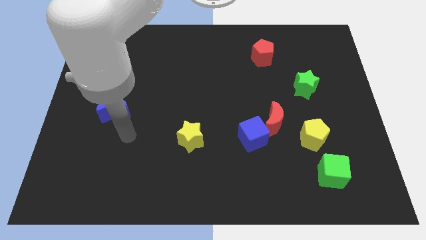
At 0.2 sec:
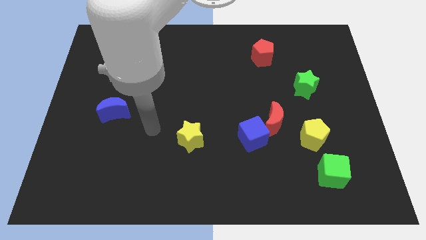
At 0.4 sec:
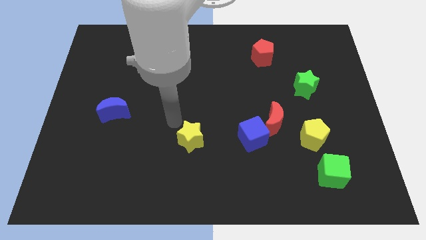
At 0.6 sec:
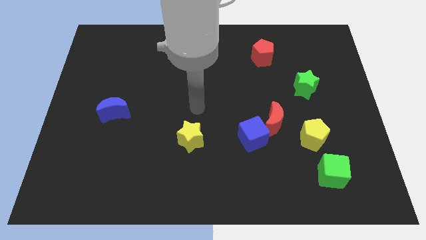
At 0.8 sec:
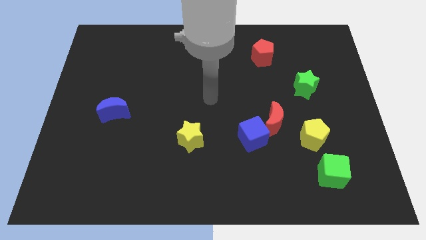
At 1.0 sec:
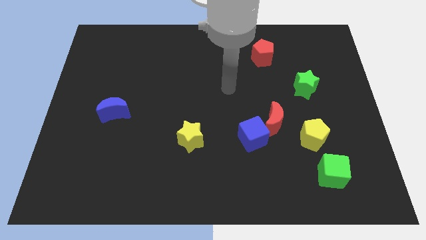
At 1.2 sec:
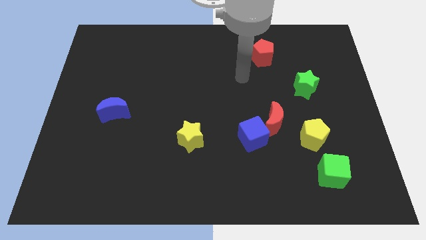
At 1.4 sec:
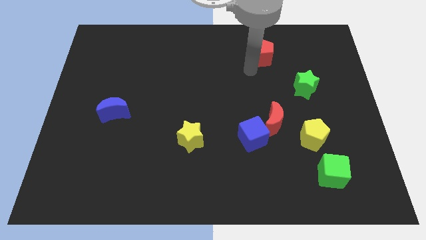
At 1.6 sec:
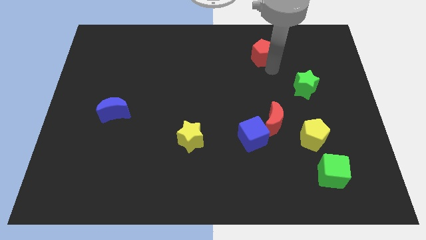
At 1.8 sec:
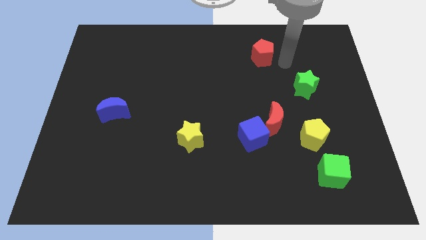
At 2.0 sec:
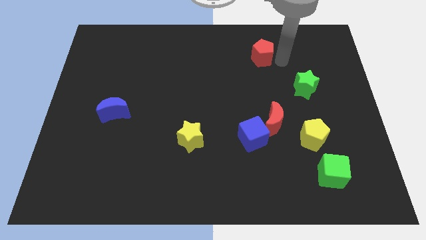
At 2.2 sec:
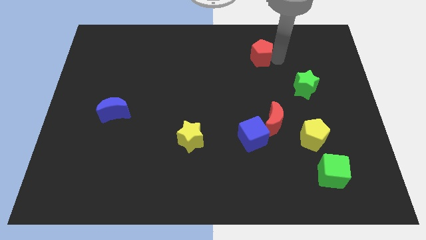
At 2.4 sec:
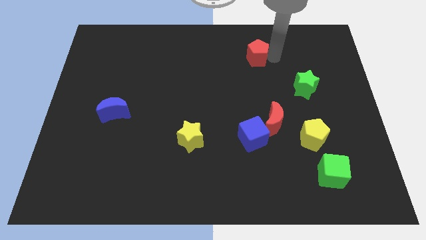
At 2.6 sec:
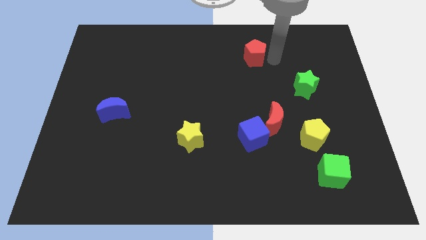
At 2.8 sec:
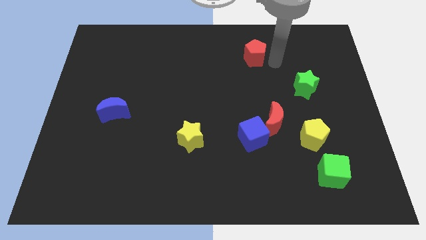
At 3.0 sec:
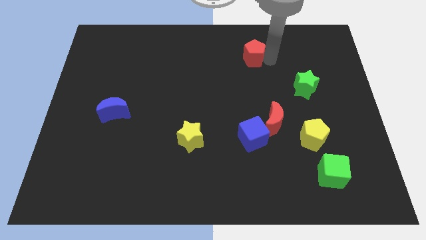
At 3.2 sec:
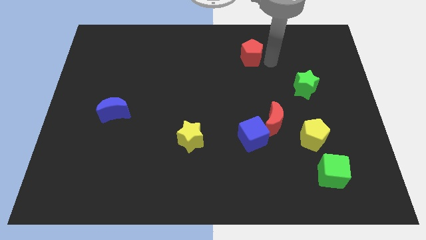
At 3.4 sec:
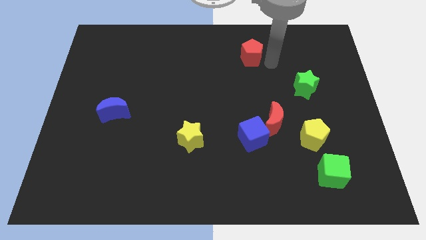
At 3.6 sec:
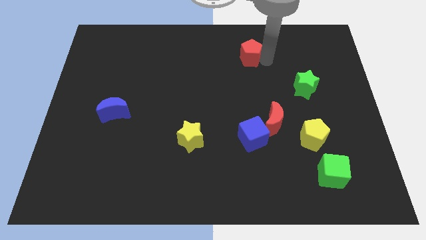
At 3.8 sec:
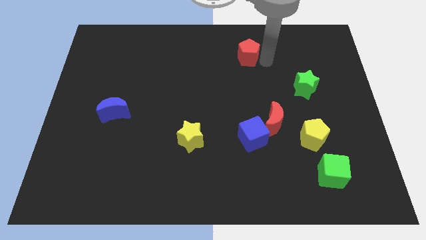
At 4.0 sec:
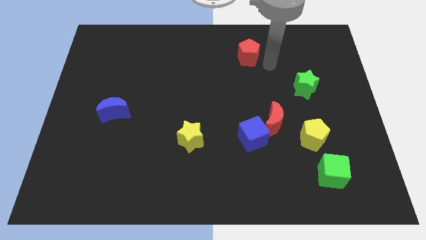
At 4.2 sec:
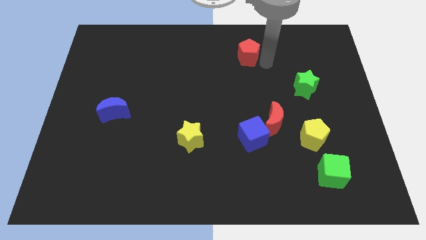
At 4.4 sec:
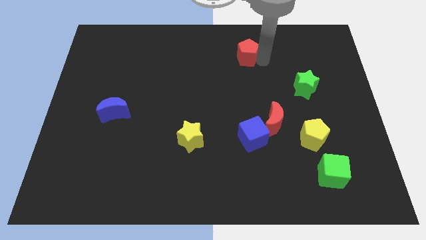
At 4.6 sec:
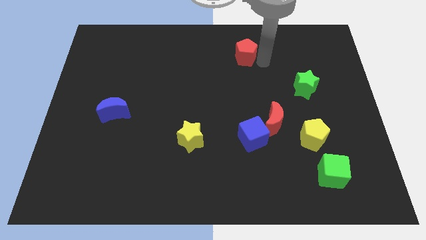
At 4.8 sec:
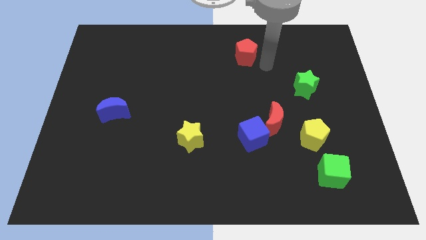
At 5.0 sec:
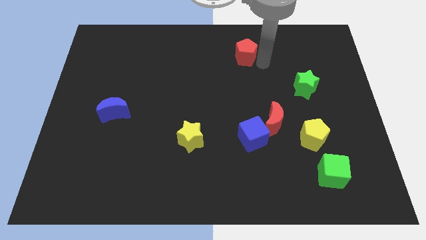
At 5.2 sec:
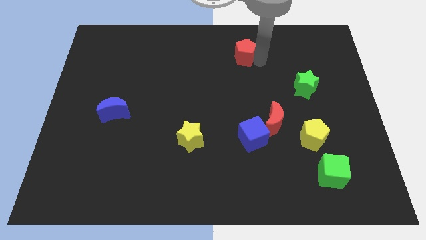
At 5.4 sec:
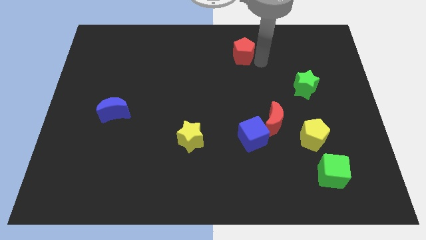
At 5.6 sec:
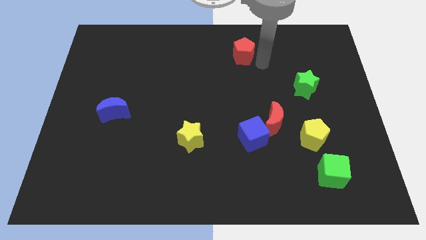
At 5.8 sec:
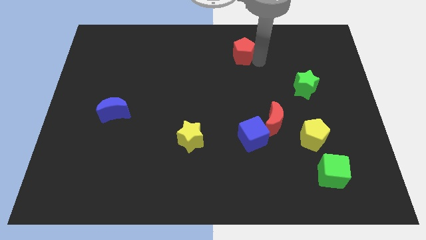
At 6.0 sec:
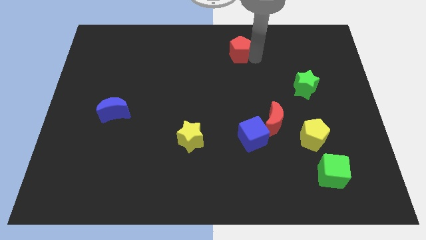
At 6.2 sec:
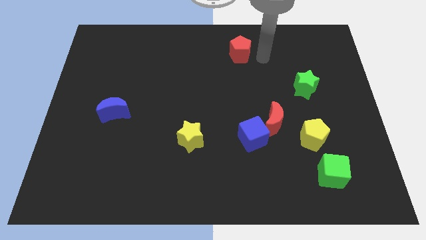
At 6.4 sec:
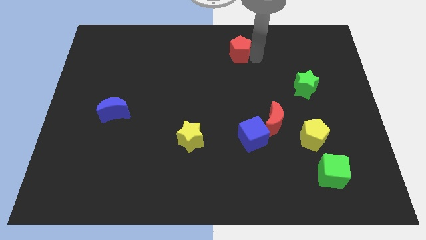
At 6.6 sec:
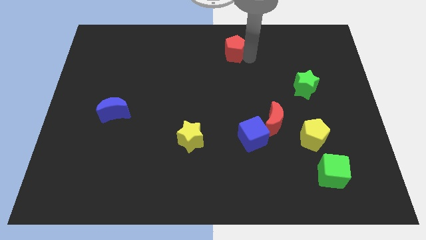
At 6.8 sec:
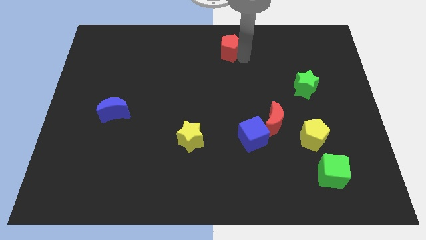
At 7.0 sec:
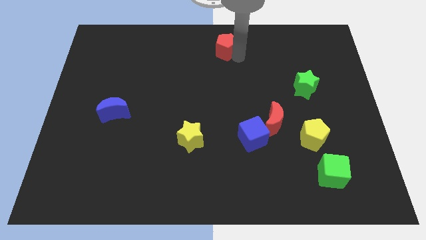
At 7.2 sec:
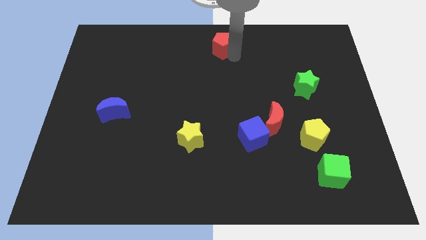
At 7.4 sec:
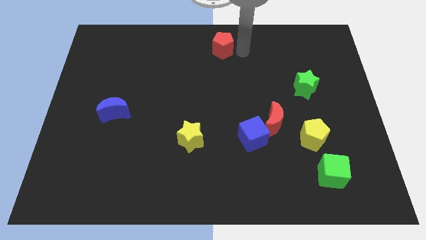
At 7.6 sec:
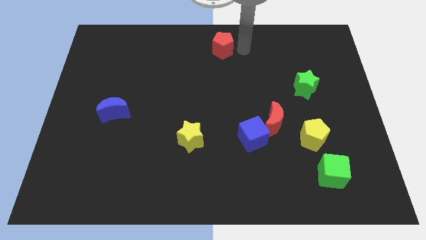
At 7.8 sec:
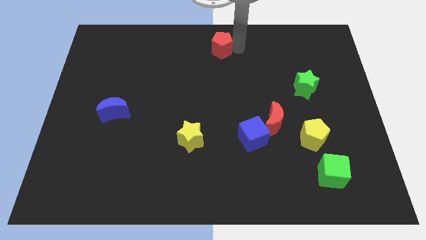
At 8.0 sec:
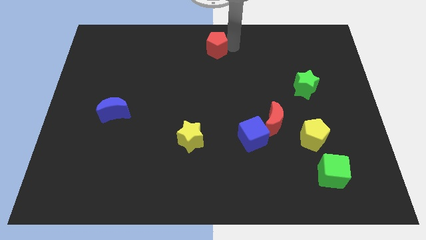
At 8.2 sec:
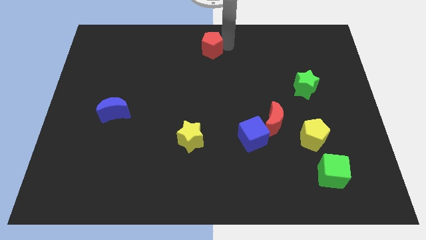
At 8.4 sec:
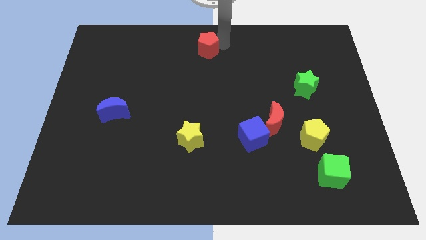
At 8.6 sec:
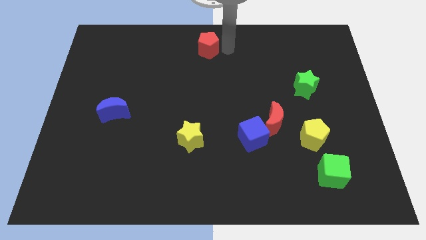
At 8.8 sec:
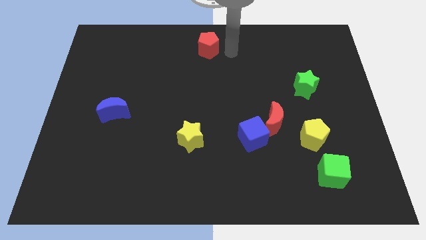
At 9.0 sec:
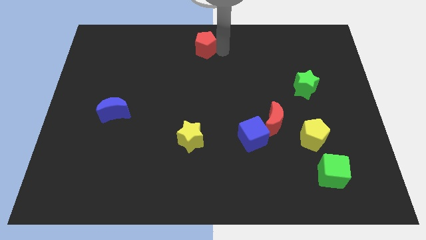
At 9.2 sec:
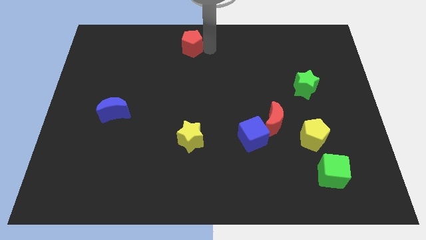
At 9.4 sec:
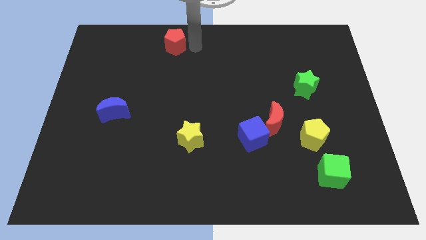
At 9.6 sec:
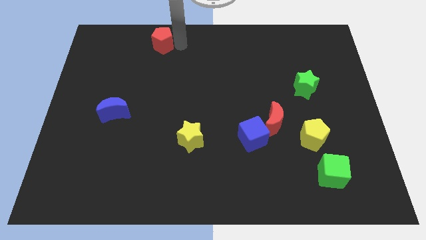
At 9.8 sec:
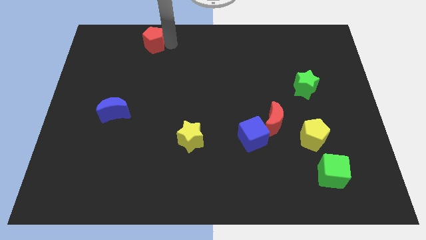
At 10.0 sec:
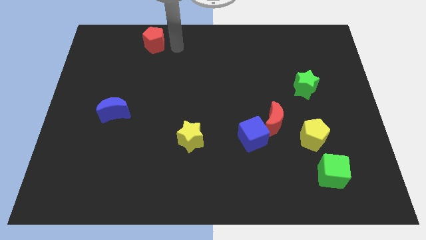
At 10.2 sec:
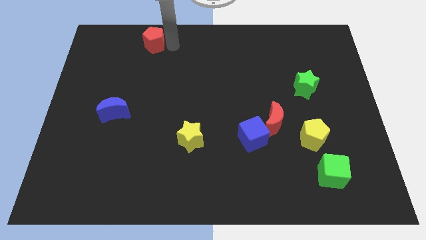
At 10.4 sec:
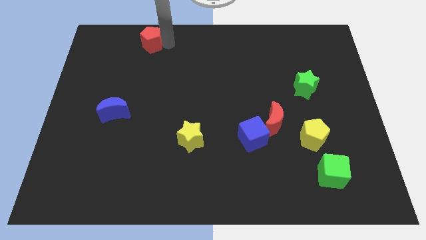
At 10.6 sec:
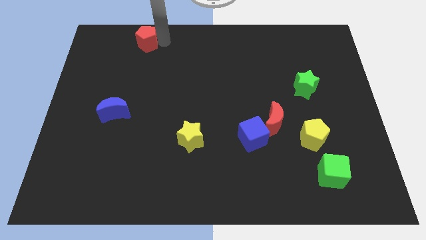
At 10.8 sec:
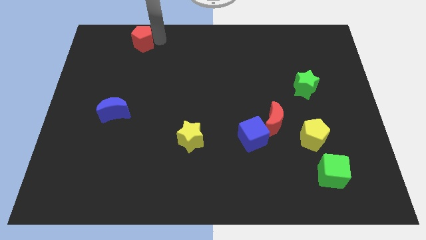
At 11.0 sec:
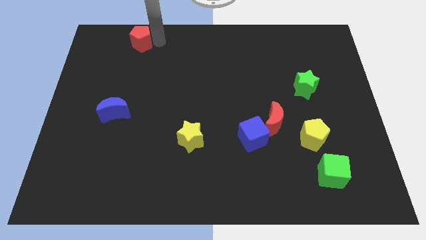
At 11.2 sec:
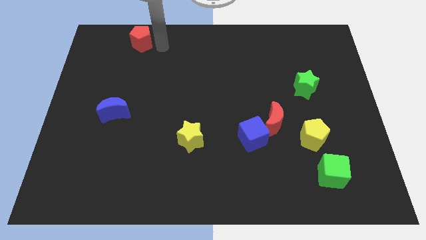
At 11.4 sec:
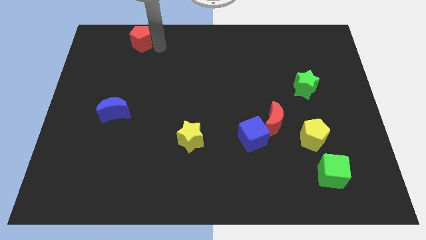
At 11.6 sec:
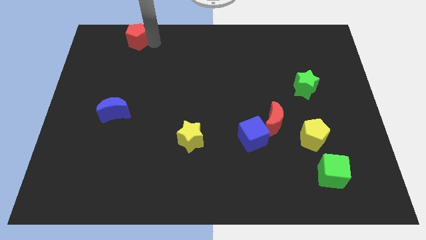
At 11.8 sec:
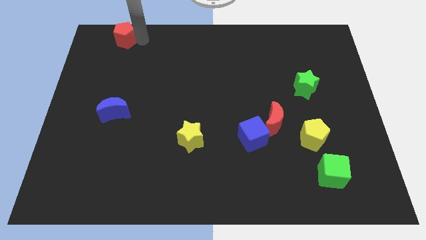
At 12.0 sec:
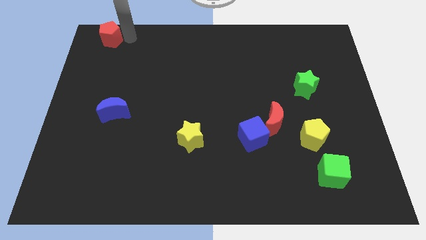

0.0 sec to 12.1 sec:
move the red pentagon to the top left

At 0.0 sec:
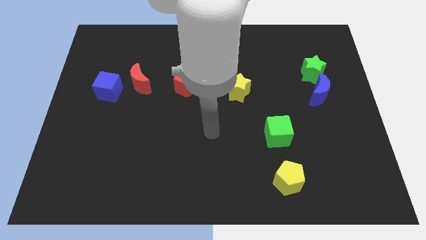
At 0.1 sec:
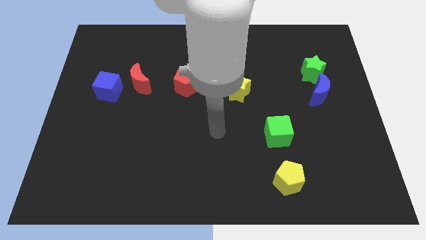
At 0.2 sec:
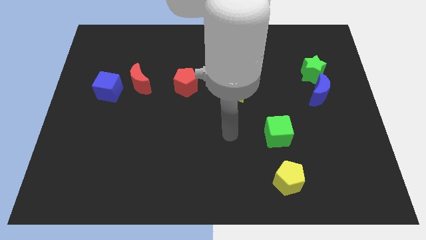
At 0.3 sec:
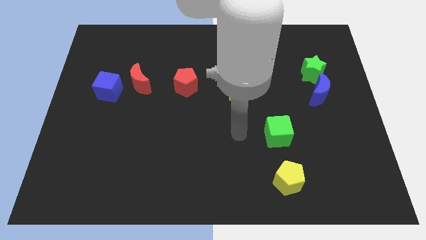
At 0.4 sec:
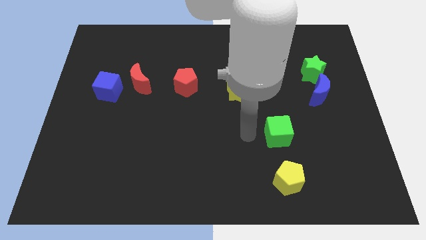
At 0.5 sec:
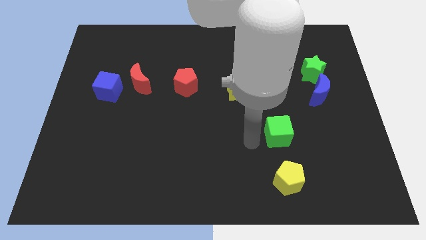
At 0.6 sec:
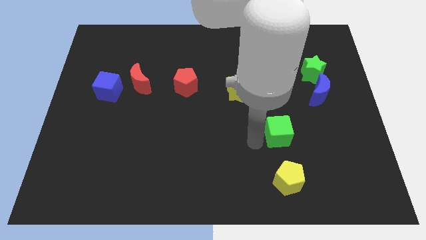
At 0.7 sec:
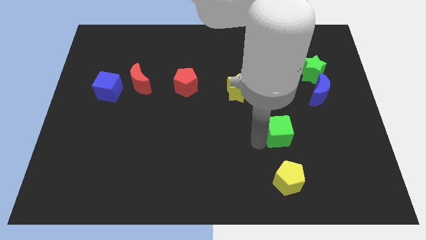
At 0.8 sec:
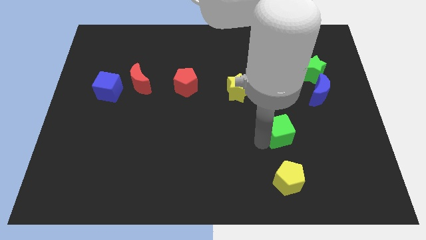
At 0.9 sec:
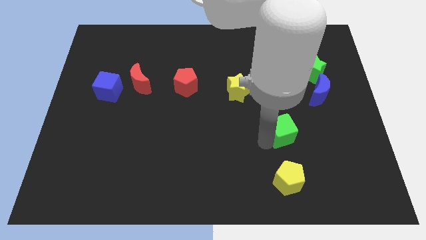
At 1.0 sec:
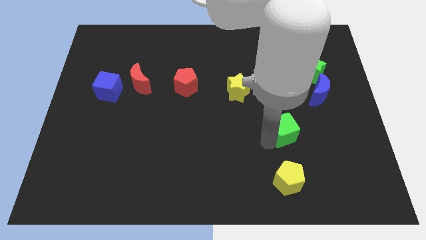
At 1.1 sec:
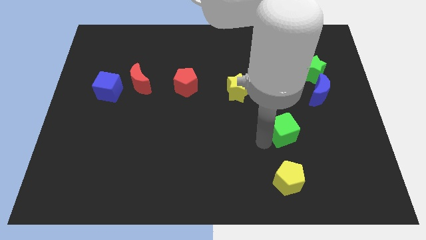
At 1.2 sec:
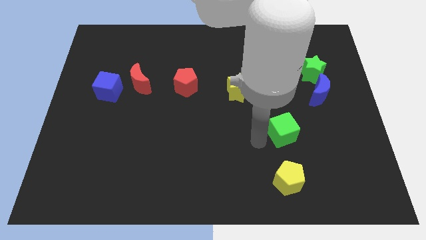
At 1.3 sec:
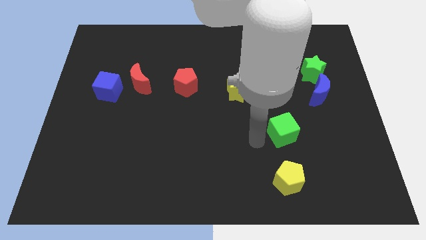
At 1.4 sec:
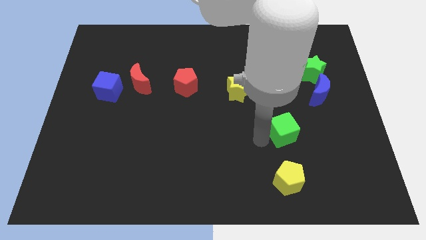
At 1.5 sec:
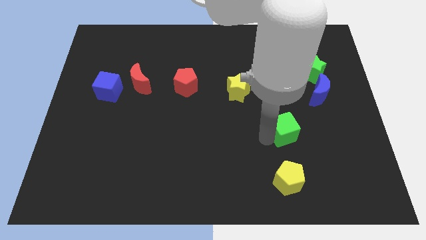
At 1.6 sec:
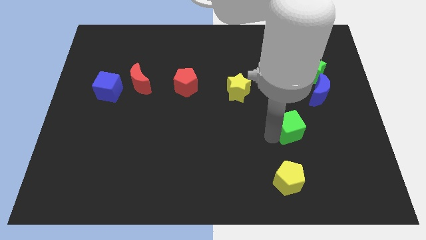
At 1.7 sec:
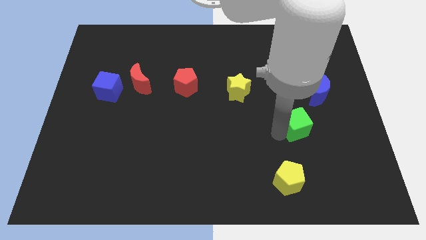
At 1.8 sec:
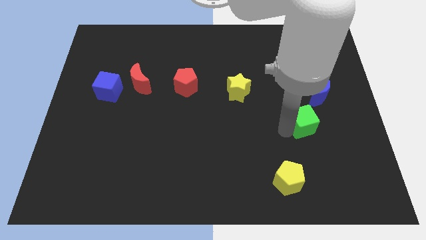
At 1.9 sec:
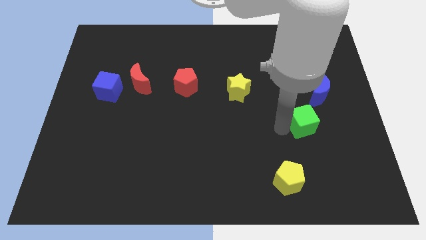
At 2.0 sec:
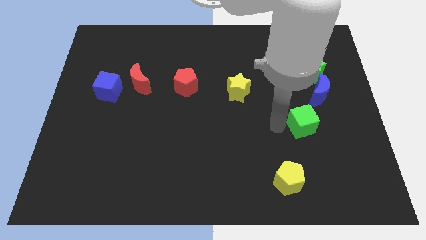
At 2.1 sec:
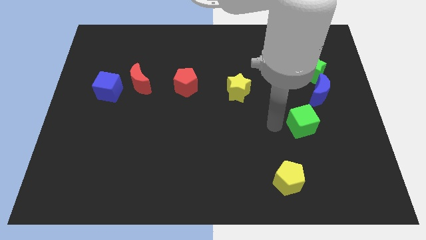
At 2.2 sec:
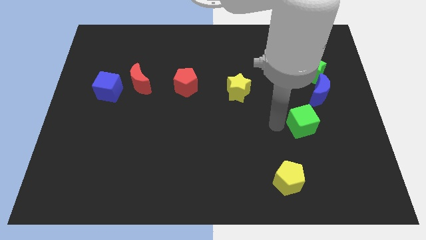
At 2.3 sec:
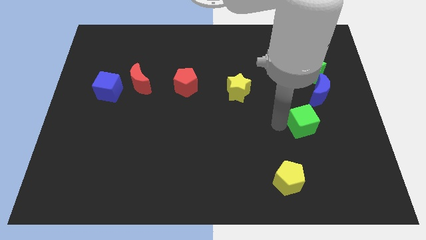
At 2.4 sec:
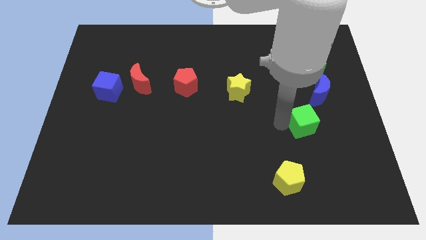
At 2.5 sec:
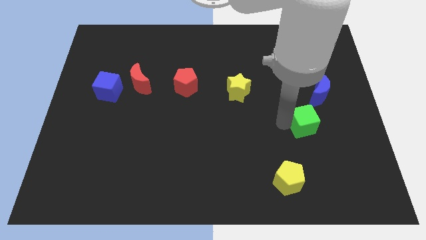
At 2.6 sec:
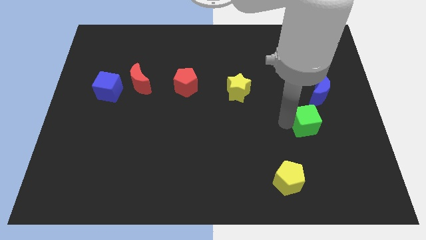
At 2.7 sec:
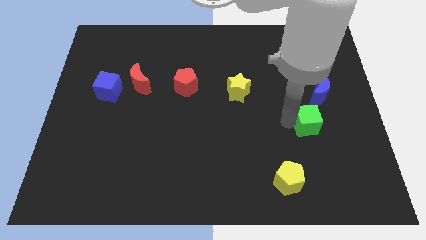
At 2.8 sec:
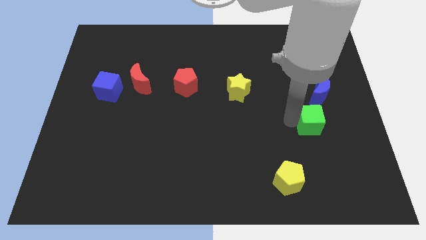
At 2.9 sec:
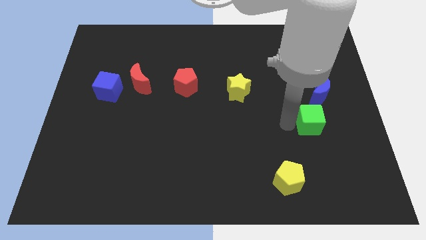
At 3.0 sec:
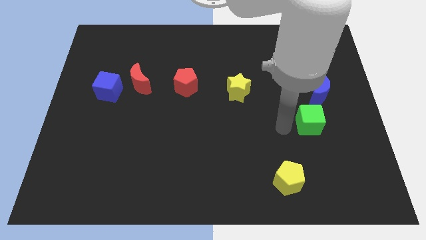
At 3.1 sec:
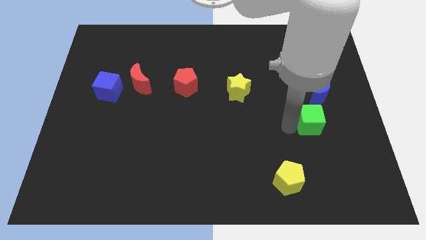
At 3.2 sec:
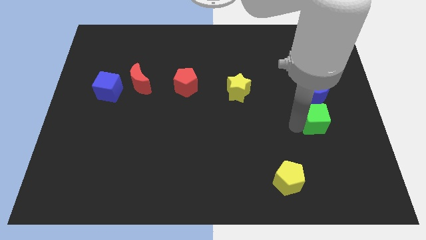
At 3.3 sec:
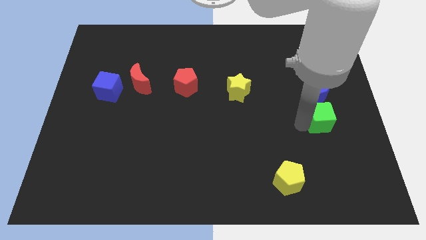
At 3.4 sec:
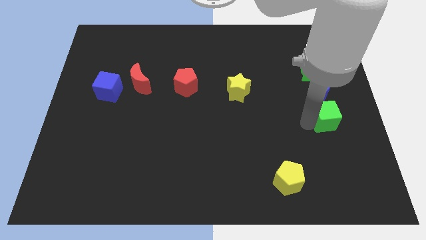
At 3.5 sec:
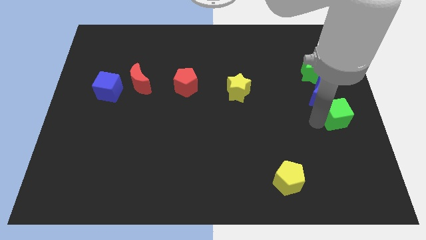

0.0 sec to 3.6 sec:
slide the green cube to the right side of the board
